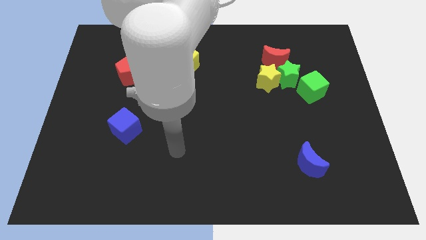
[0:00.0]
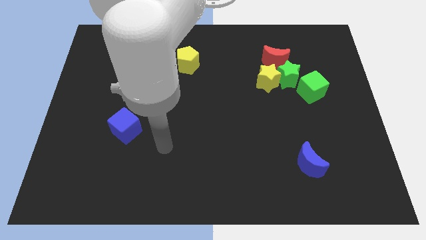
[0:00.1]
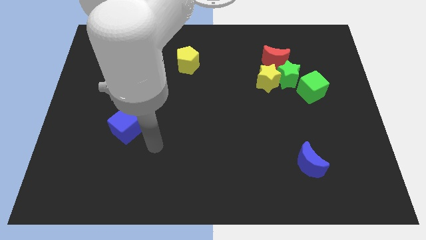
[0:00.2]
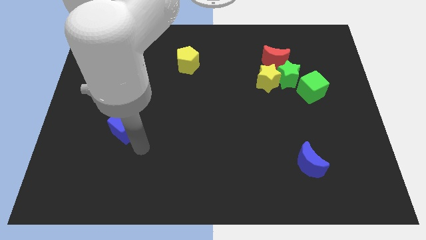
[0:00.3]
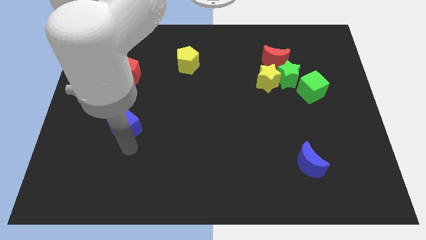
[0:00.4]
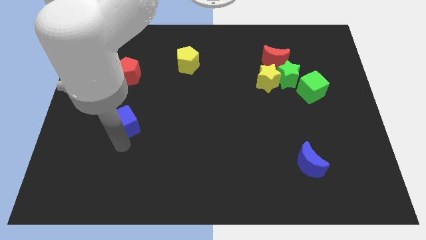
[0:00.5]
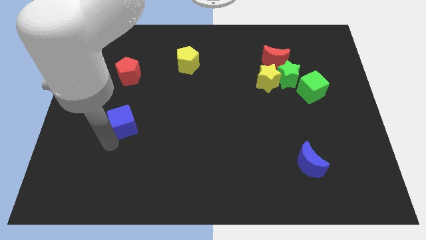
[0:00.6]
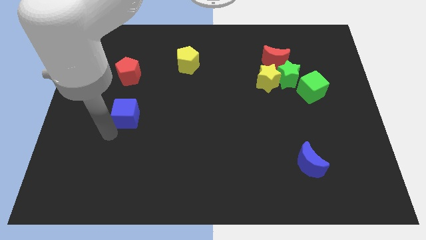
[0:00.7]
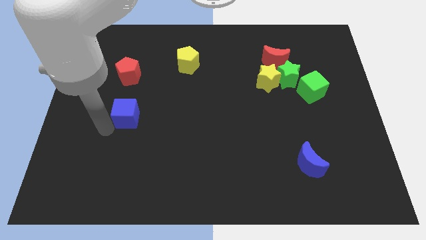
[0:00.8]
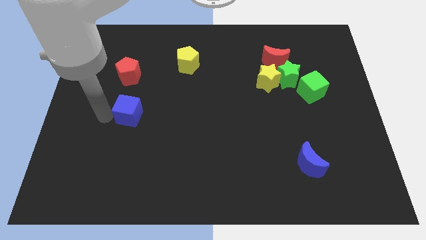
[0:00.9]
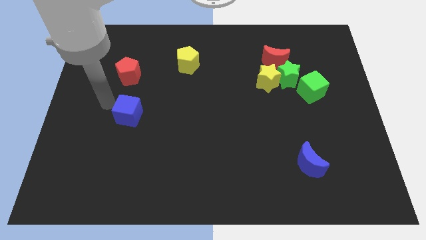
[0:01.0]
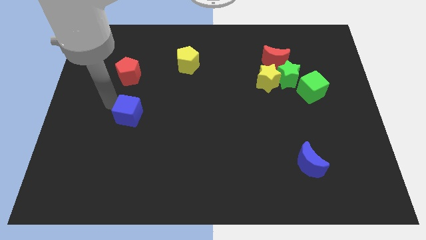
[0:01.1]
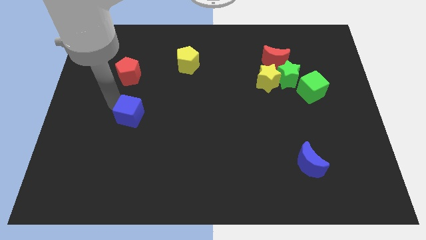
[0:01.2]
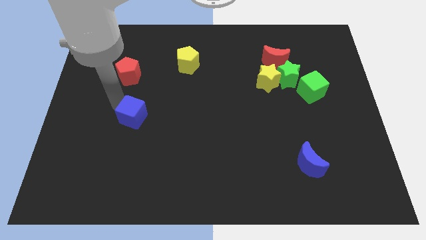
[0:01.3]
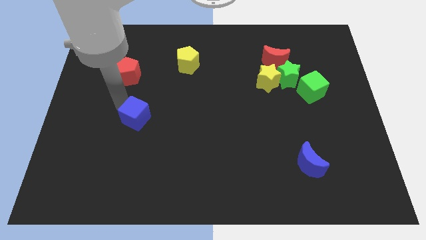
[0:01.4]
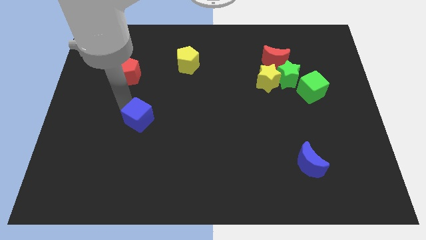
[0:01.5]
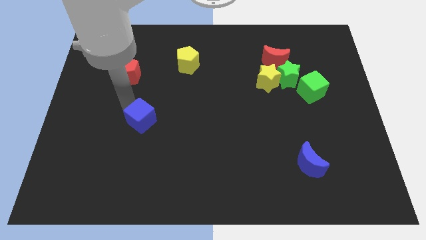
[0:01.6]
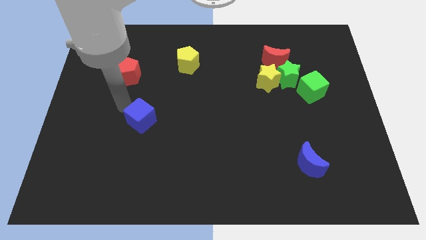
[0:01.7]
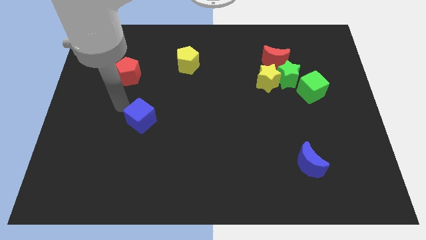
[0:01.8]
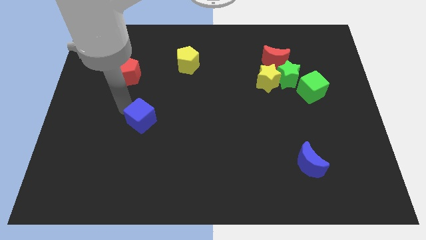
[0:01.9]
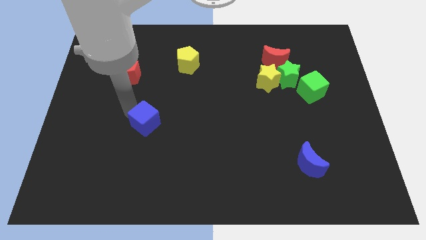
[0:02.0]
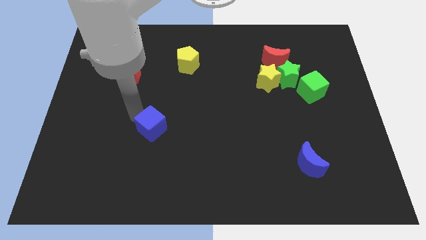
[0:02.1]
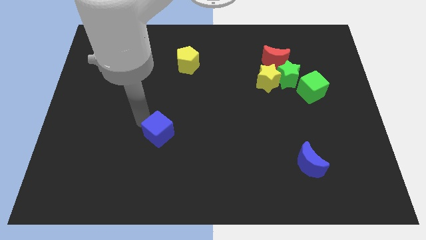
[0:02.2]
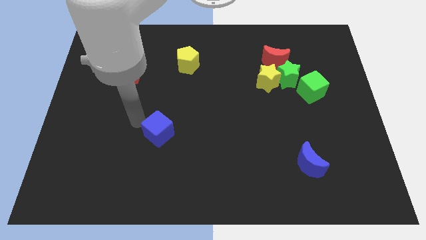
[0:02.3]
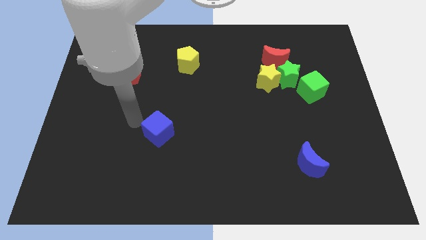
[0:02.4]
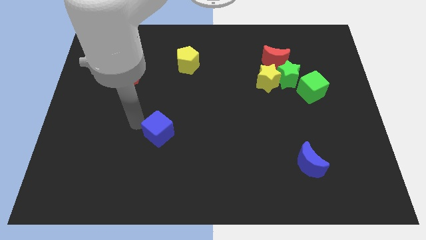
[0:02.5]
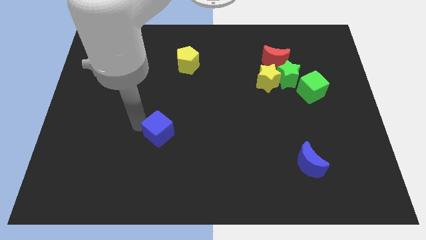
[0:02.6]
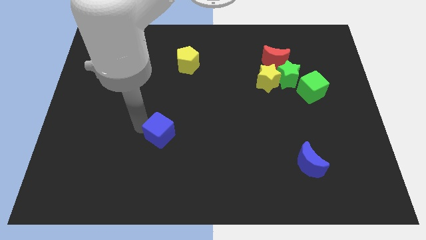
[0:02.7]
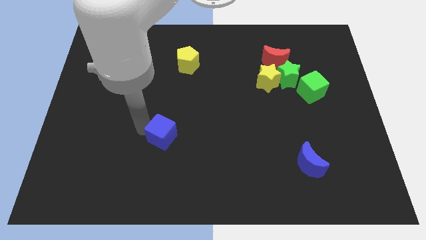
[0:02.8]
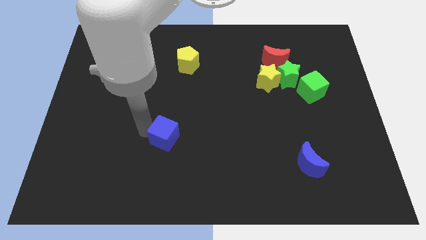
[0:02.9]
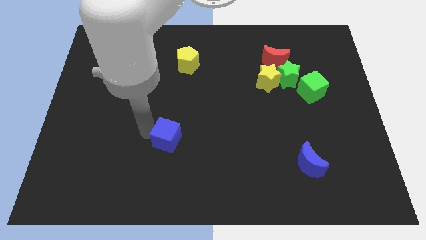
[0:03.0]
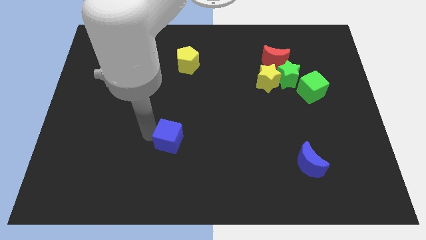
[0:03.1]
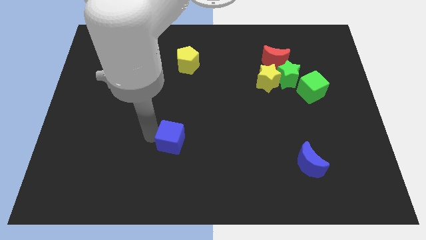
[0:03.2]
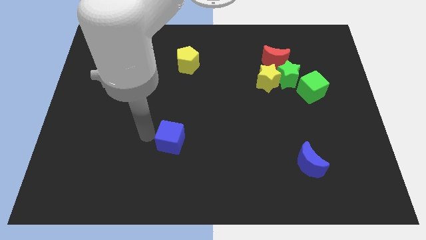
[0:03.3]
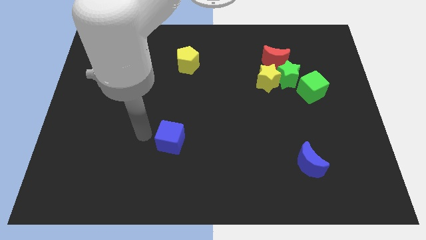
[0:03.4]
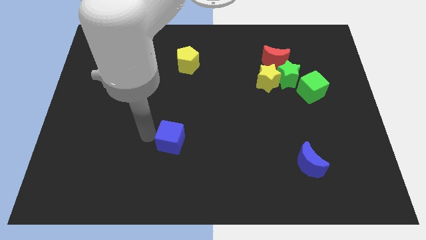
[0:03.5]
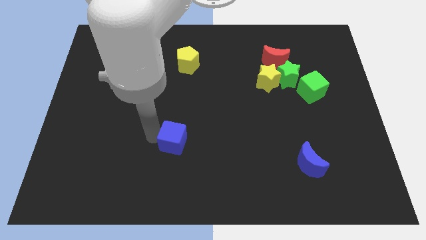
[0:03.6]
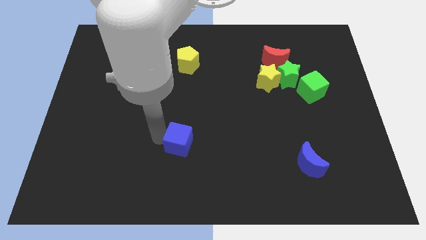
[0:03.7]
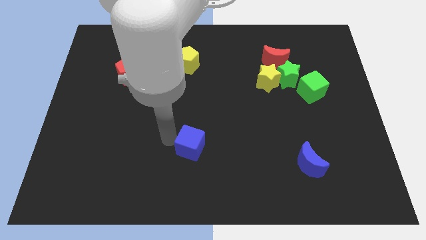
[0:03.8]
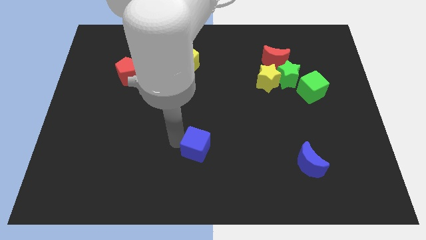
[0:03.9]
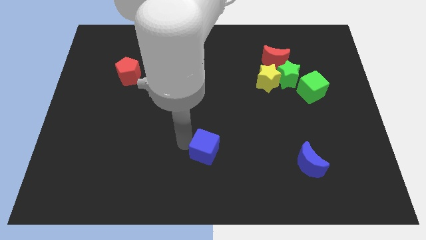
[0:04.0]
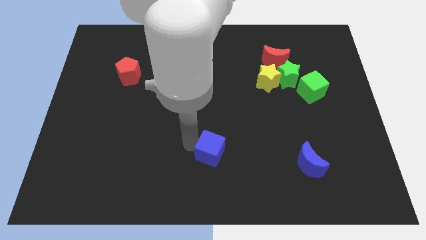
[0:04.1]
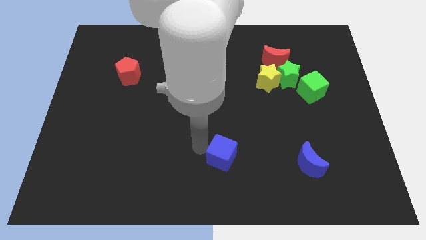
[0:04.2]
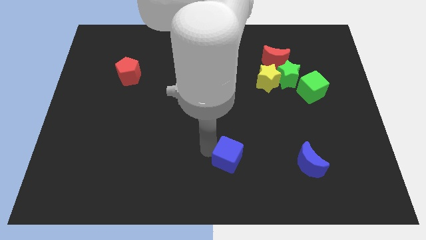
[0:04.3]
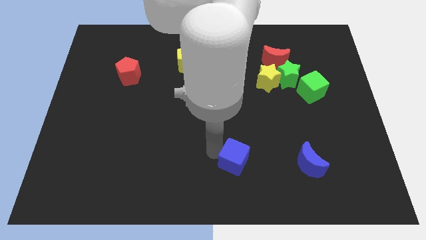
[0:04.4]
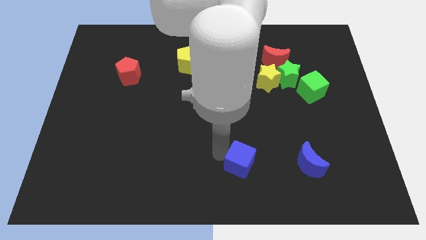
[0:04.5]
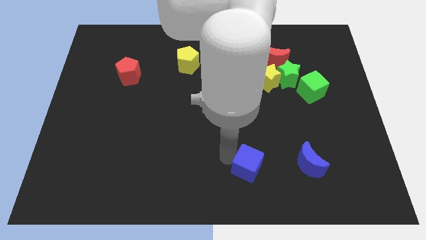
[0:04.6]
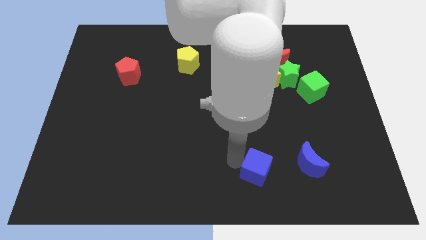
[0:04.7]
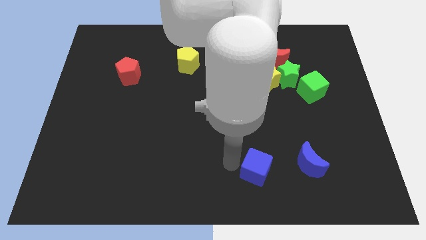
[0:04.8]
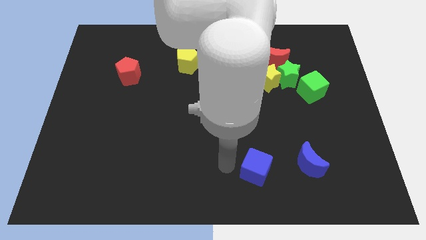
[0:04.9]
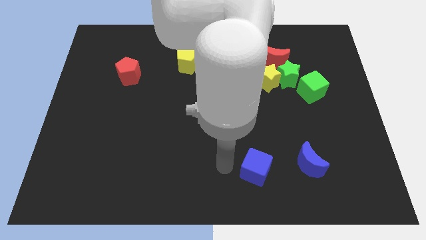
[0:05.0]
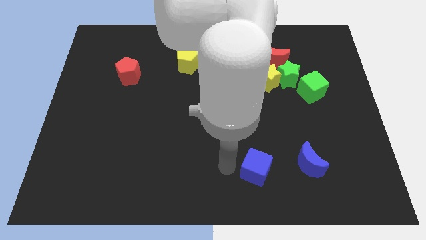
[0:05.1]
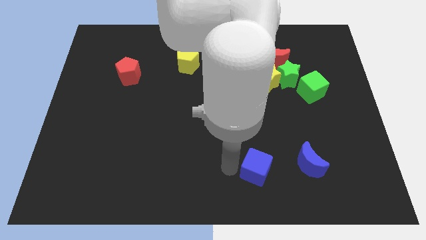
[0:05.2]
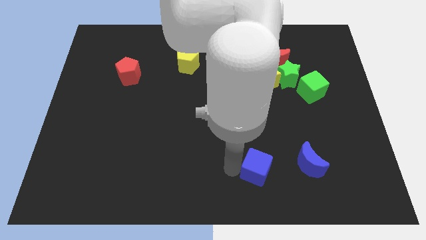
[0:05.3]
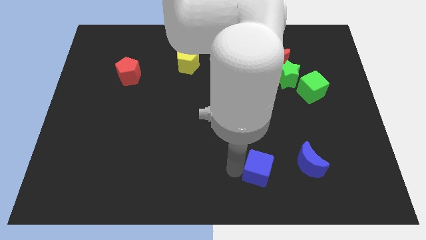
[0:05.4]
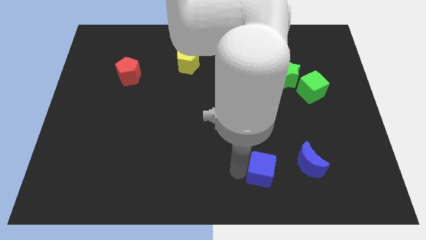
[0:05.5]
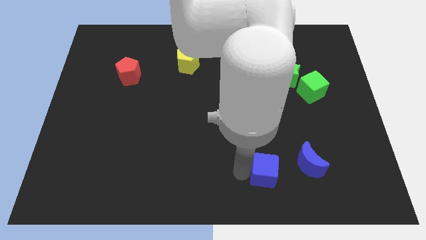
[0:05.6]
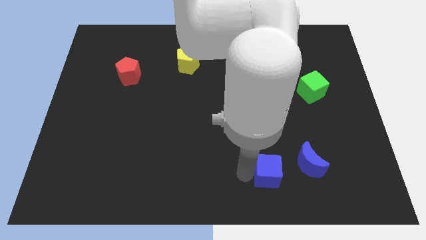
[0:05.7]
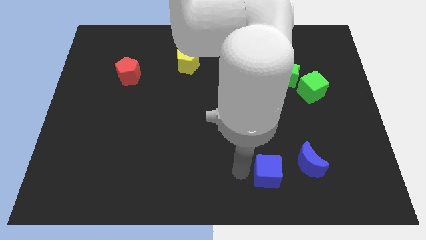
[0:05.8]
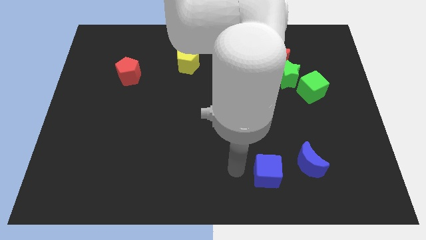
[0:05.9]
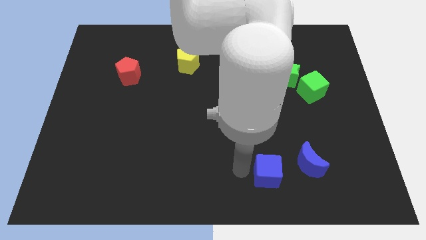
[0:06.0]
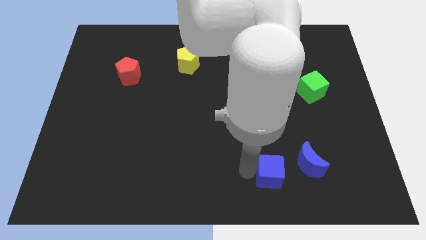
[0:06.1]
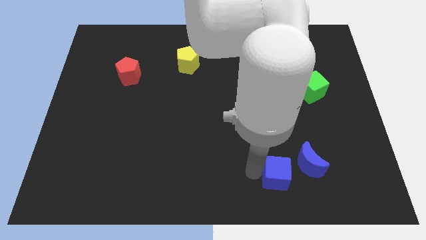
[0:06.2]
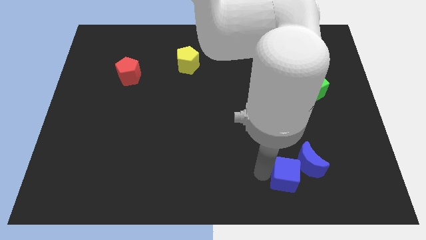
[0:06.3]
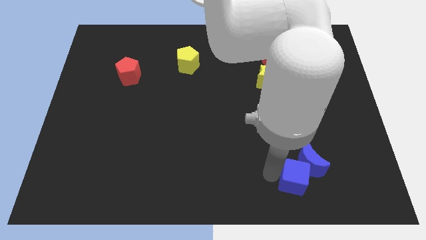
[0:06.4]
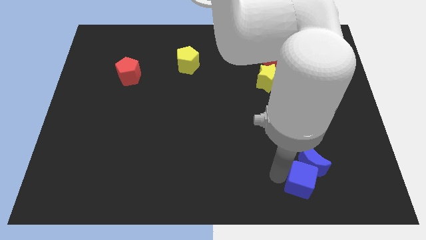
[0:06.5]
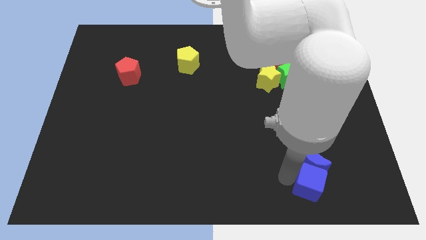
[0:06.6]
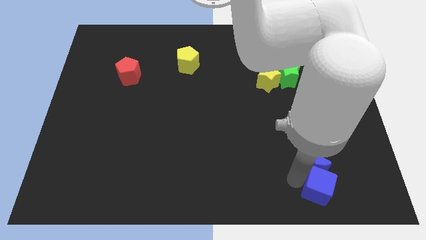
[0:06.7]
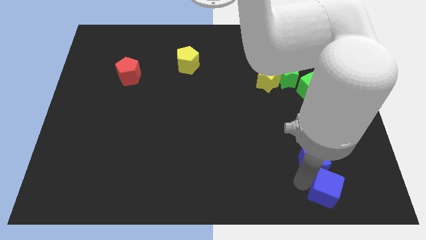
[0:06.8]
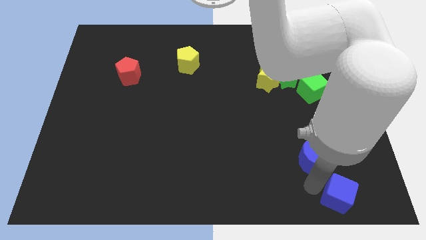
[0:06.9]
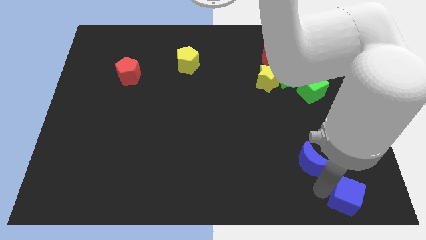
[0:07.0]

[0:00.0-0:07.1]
move the blue cube to the bottom right corner
